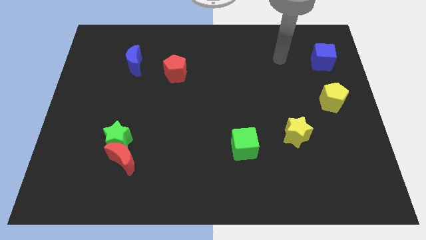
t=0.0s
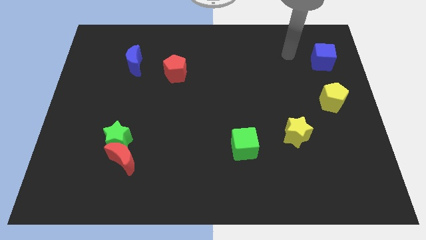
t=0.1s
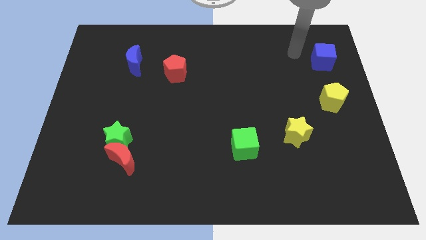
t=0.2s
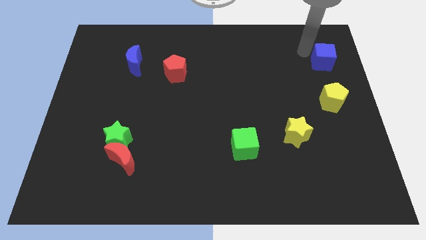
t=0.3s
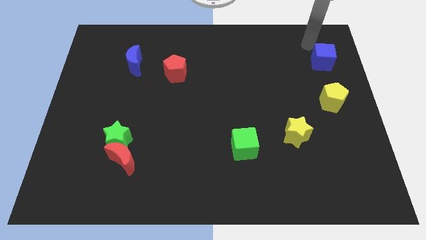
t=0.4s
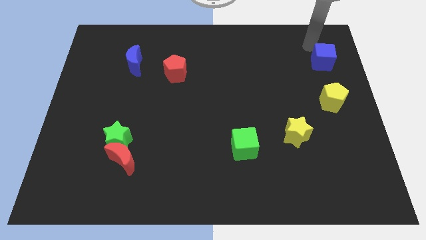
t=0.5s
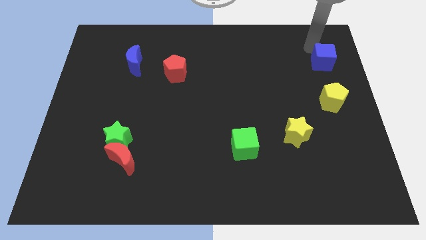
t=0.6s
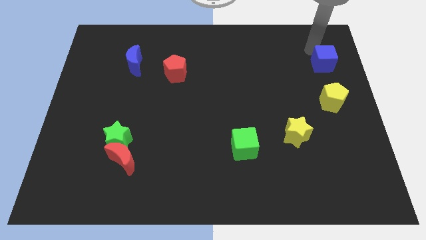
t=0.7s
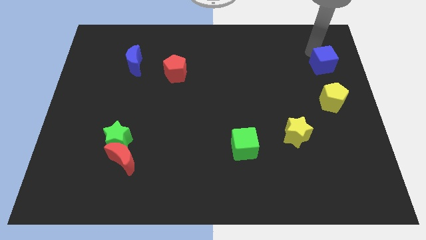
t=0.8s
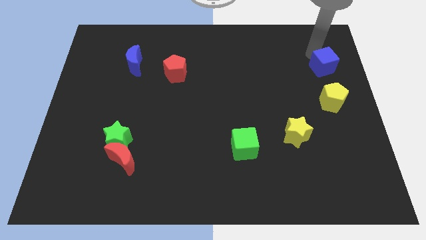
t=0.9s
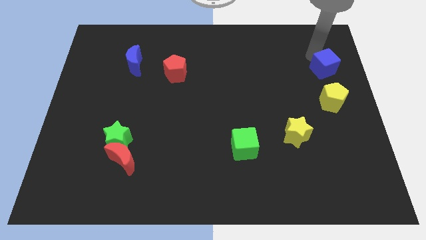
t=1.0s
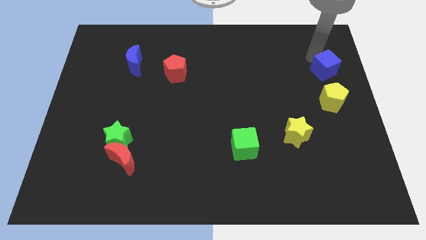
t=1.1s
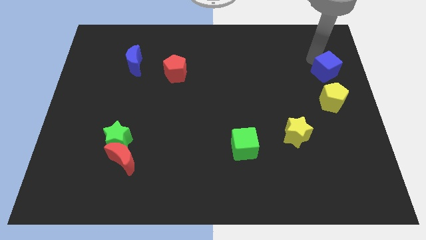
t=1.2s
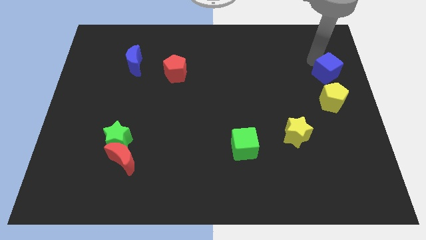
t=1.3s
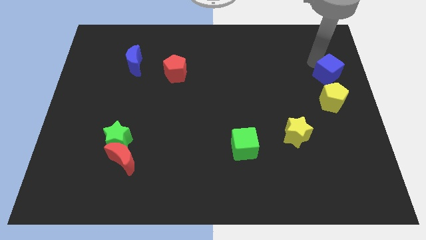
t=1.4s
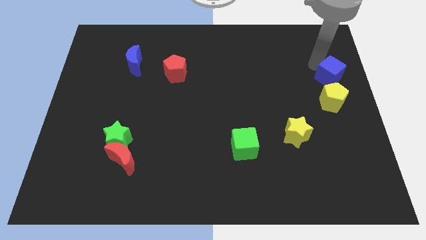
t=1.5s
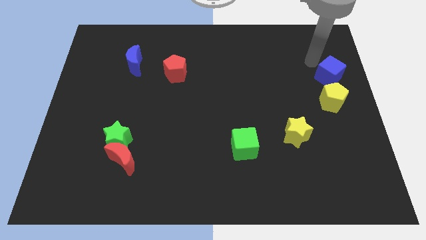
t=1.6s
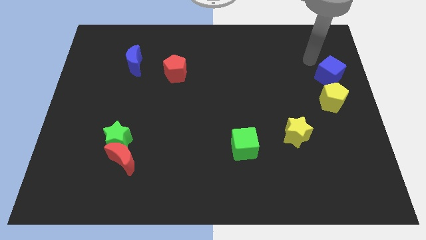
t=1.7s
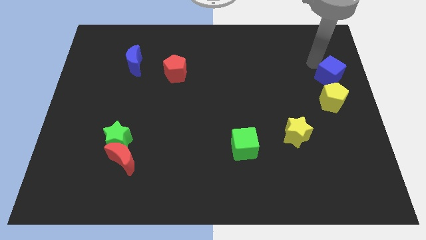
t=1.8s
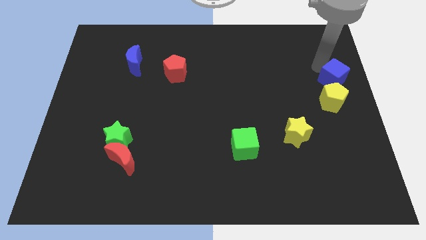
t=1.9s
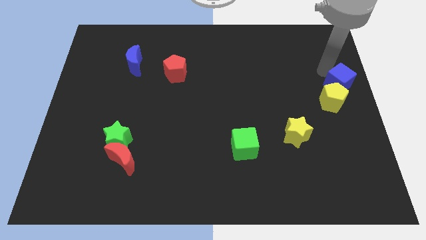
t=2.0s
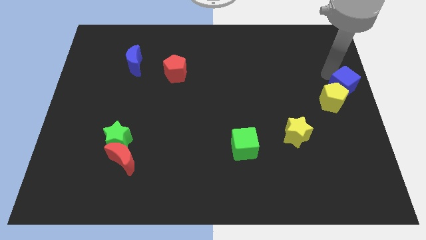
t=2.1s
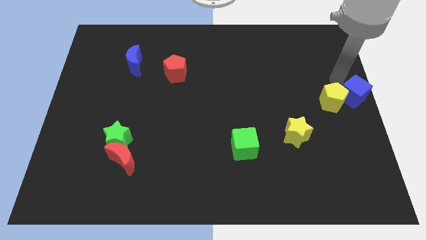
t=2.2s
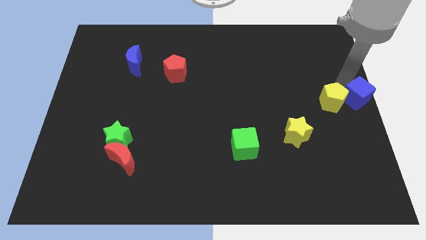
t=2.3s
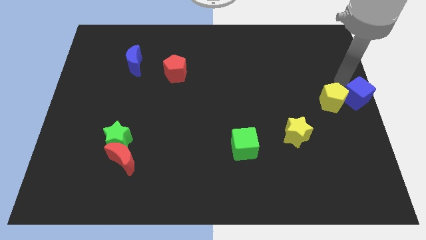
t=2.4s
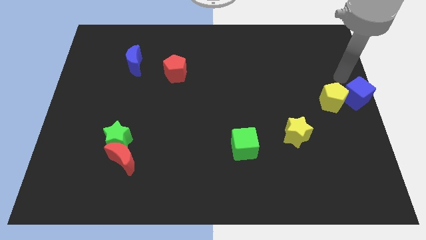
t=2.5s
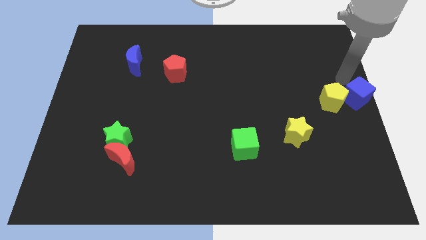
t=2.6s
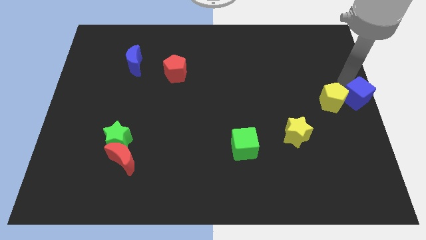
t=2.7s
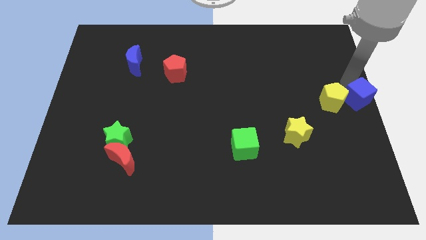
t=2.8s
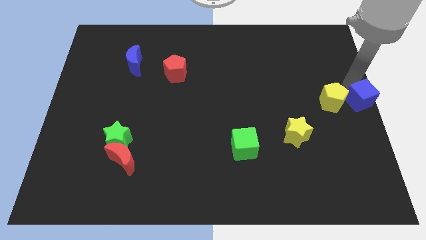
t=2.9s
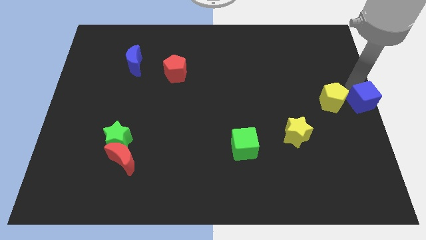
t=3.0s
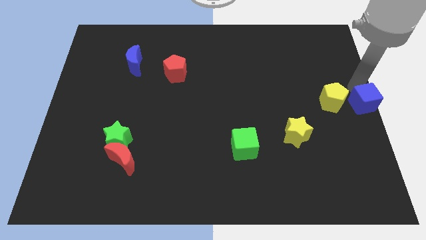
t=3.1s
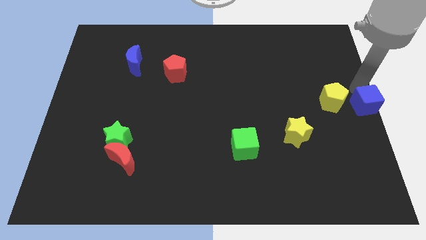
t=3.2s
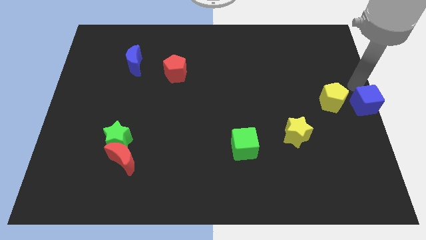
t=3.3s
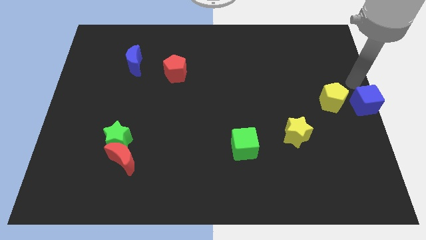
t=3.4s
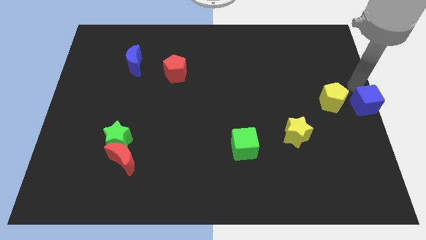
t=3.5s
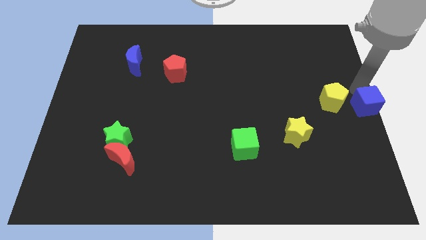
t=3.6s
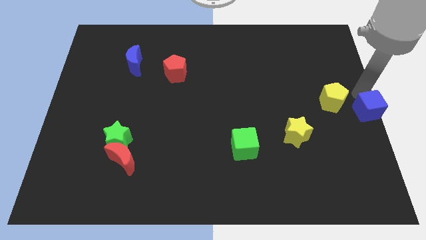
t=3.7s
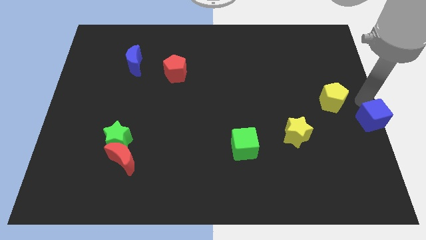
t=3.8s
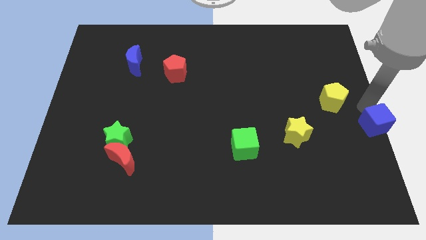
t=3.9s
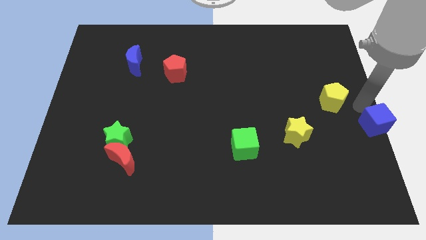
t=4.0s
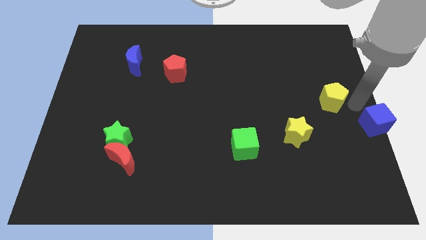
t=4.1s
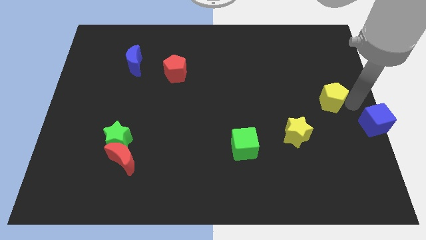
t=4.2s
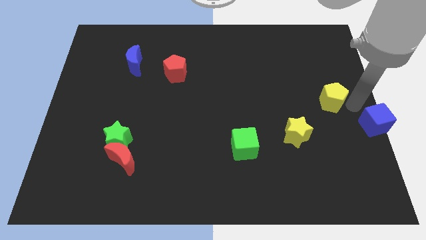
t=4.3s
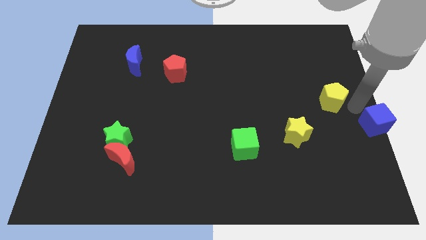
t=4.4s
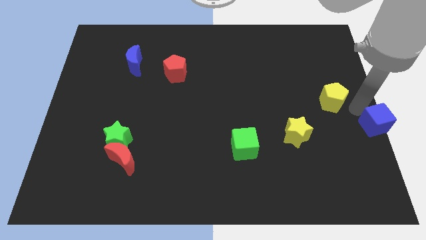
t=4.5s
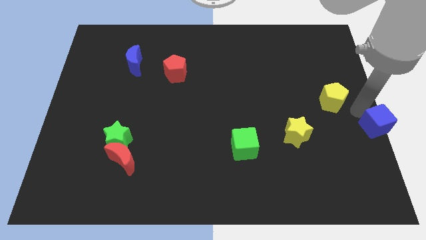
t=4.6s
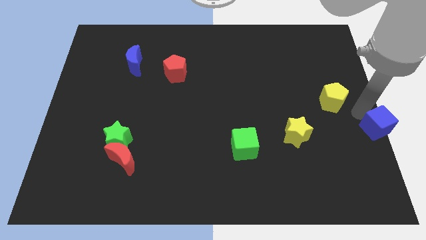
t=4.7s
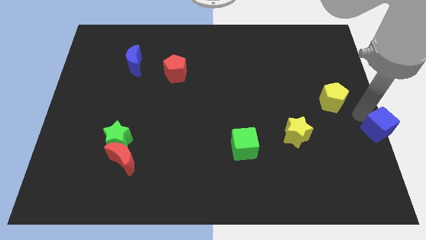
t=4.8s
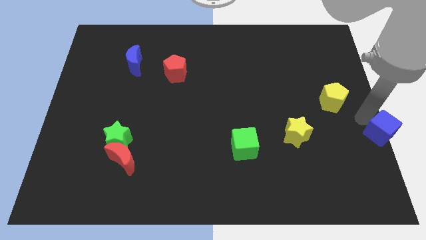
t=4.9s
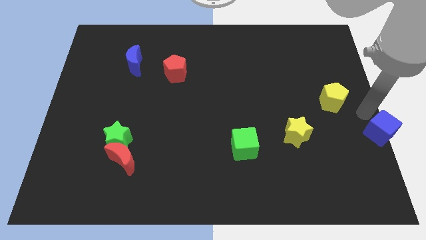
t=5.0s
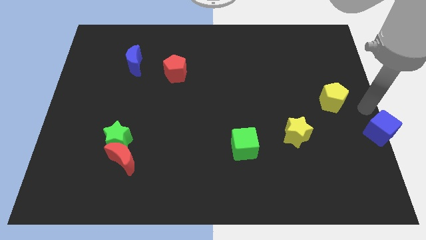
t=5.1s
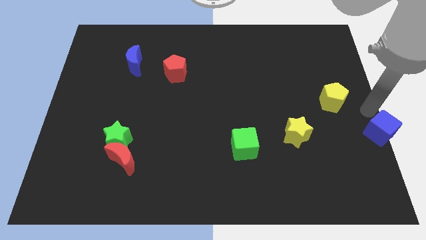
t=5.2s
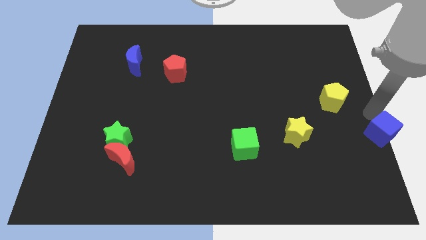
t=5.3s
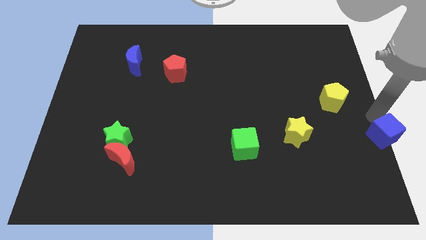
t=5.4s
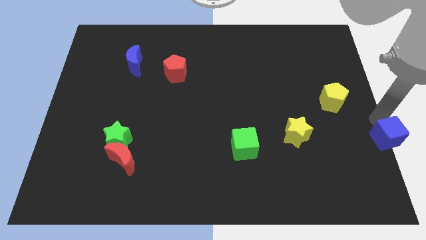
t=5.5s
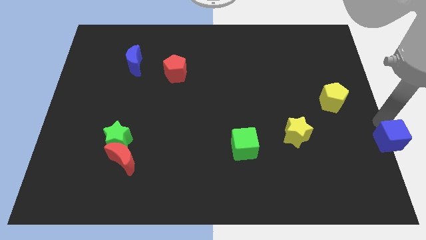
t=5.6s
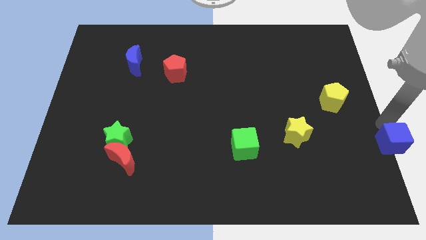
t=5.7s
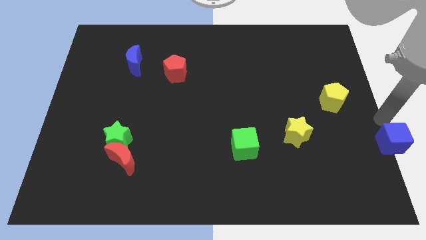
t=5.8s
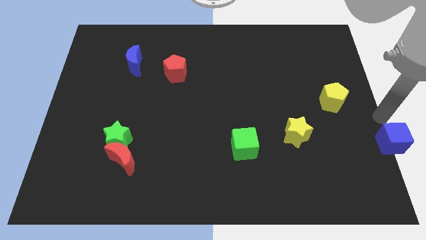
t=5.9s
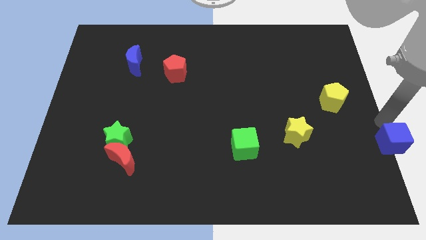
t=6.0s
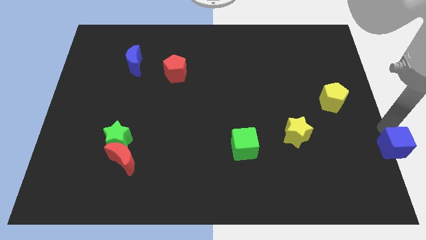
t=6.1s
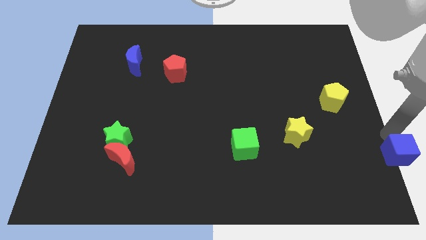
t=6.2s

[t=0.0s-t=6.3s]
push the blue cube to the bottom right corner

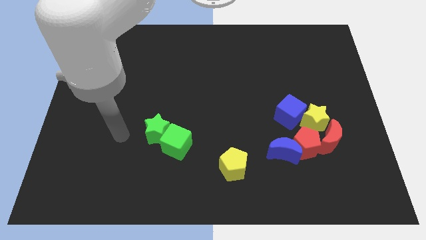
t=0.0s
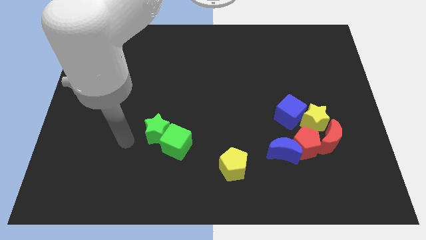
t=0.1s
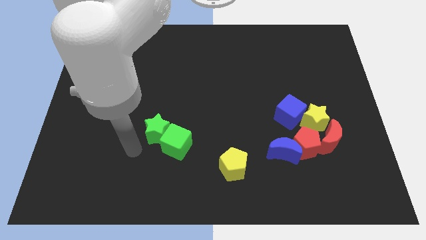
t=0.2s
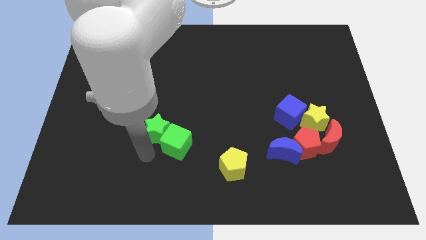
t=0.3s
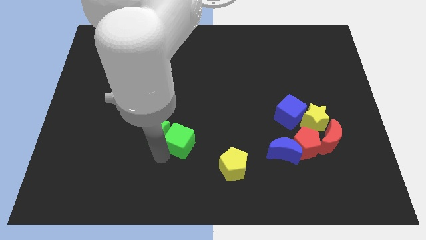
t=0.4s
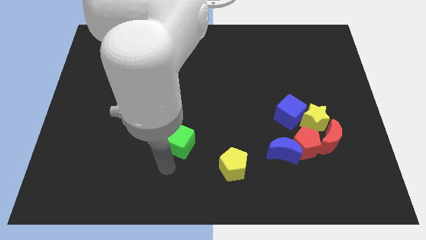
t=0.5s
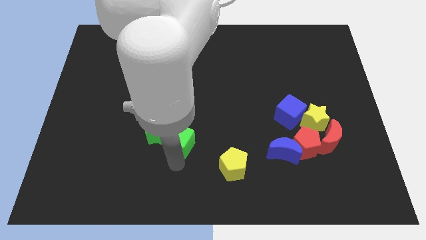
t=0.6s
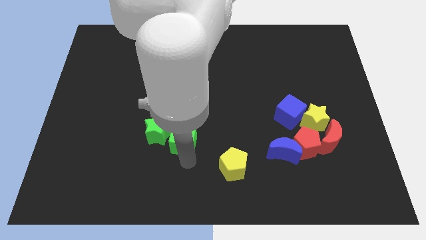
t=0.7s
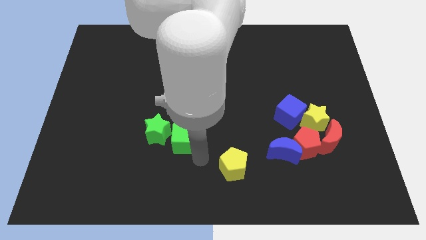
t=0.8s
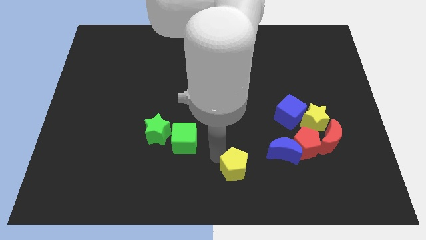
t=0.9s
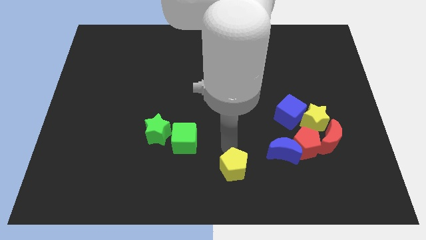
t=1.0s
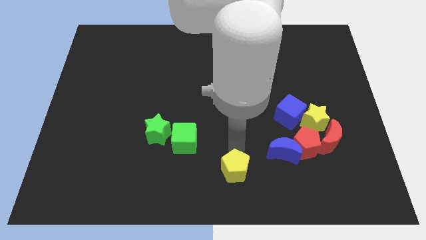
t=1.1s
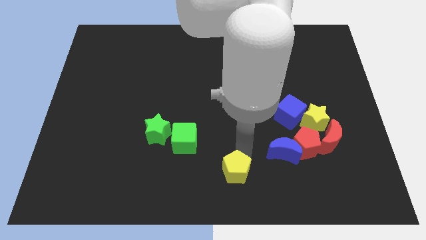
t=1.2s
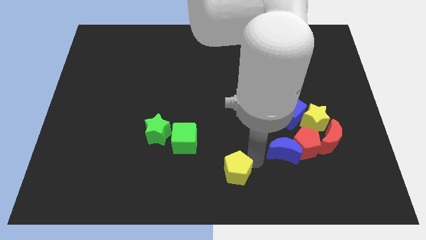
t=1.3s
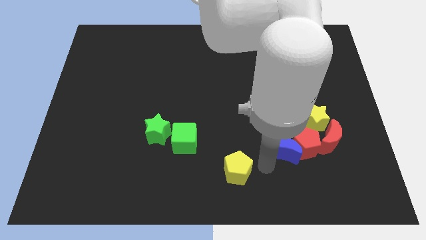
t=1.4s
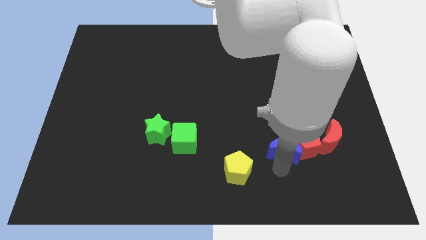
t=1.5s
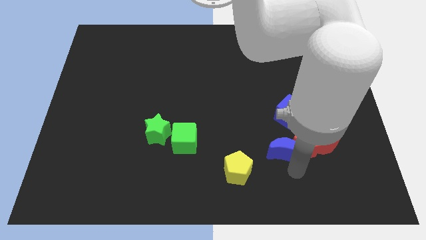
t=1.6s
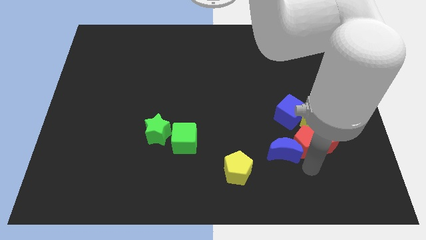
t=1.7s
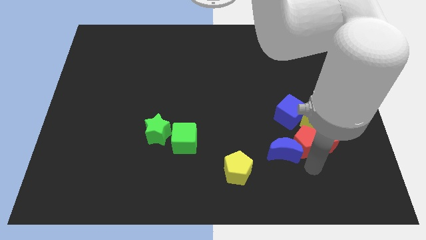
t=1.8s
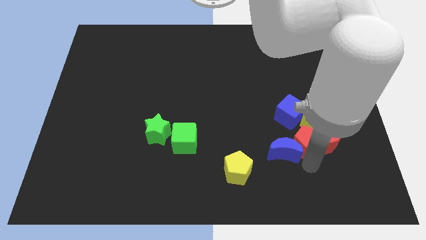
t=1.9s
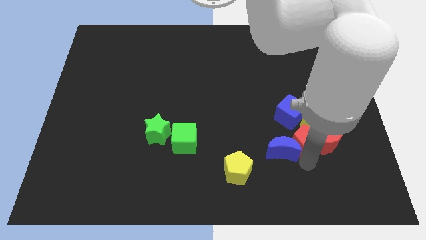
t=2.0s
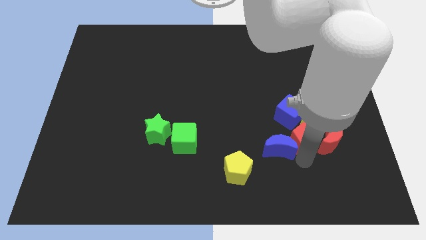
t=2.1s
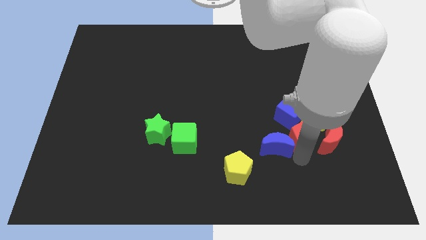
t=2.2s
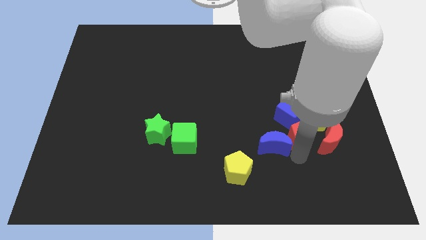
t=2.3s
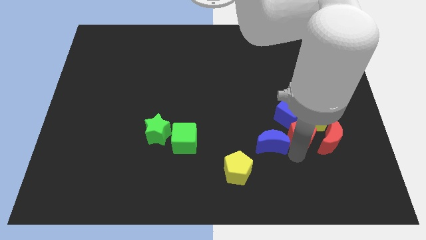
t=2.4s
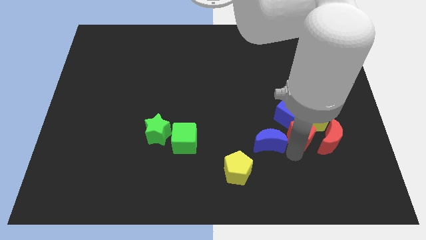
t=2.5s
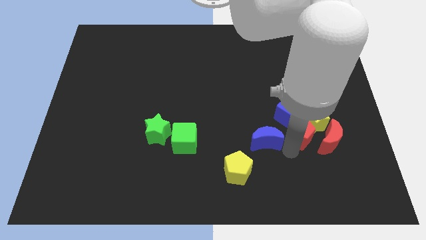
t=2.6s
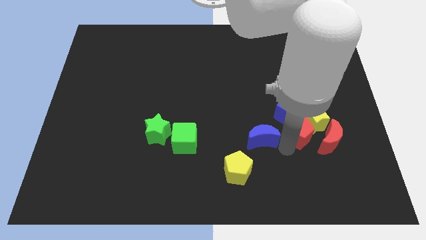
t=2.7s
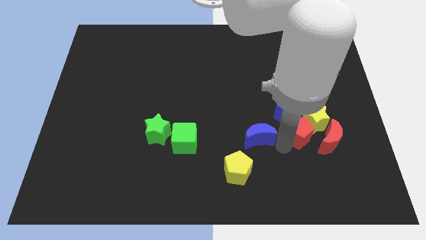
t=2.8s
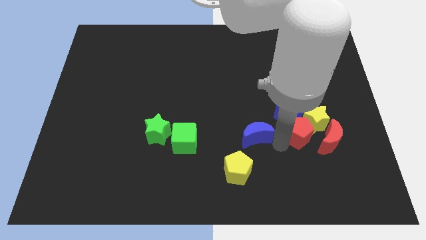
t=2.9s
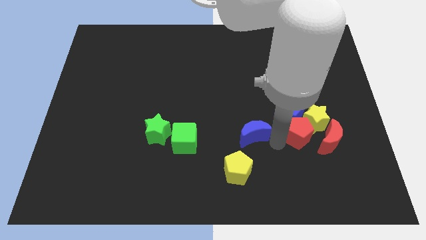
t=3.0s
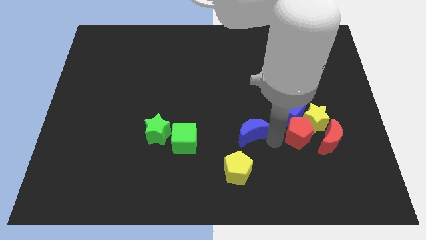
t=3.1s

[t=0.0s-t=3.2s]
move the blue moon to the middle
